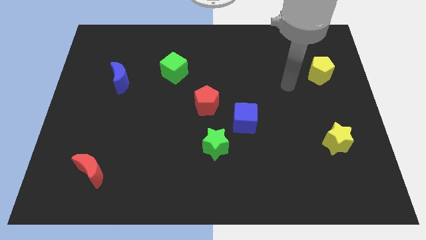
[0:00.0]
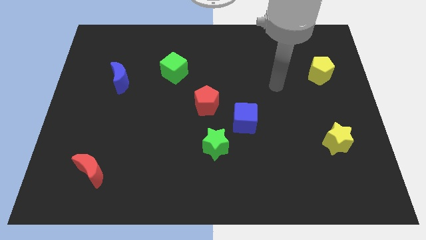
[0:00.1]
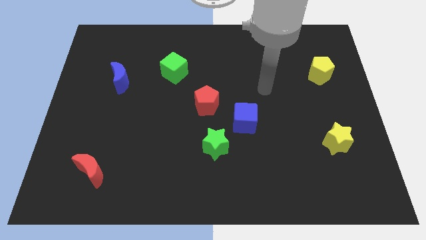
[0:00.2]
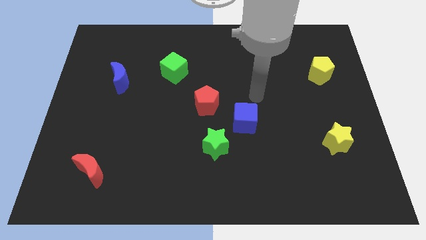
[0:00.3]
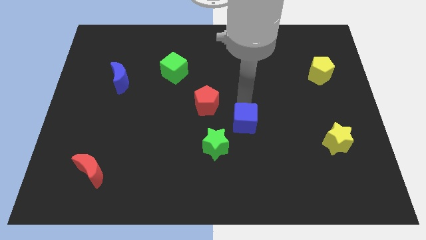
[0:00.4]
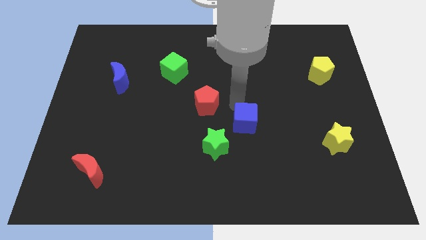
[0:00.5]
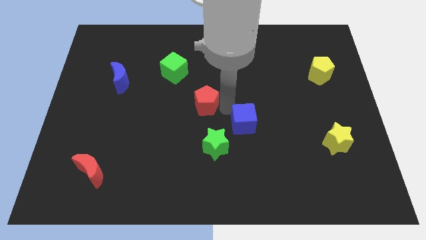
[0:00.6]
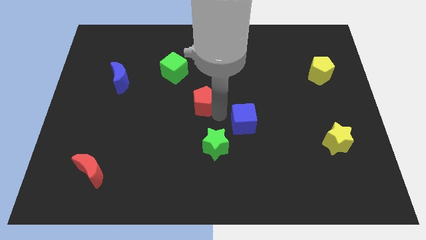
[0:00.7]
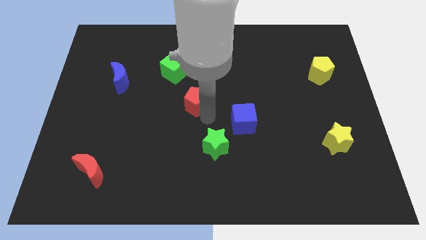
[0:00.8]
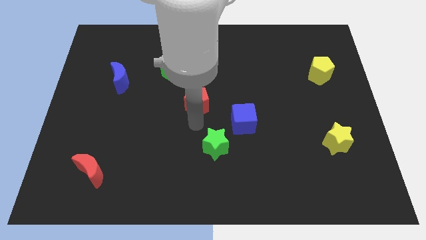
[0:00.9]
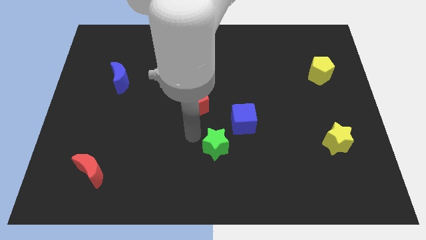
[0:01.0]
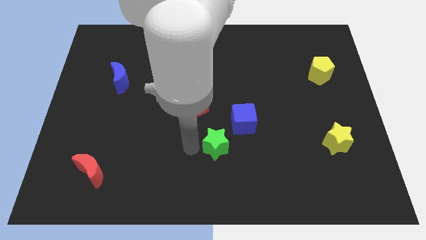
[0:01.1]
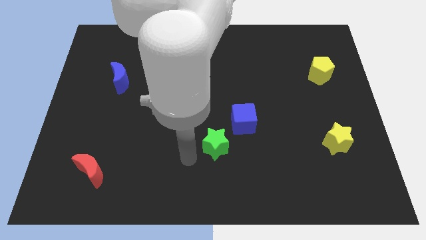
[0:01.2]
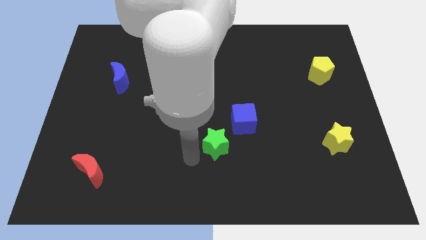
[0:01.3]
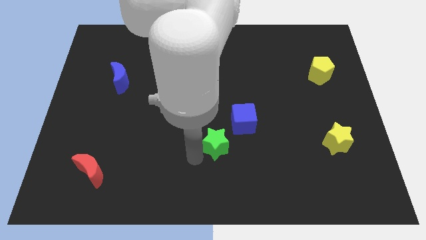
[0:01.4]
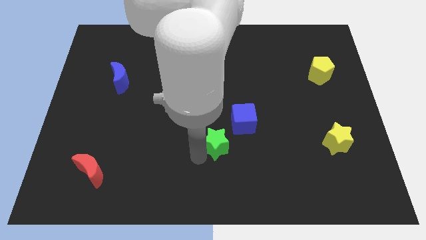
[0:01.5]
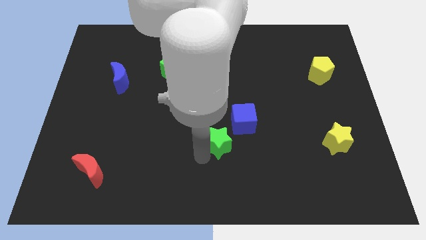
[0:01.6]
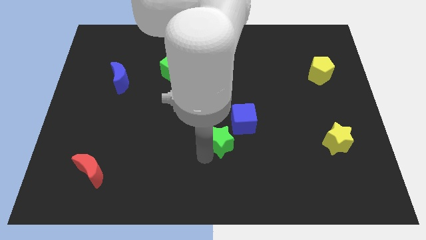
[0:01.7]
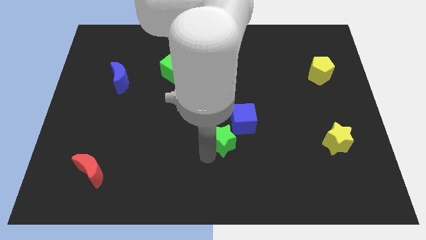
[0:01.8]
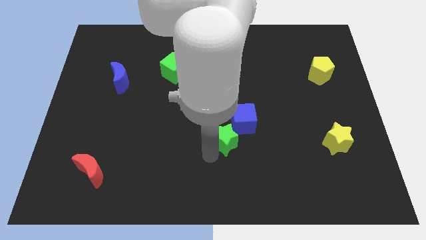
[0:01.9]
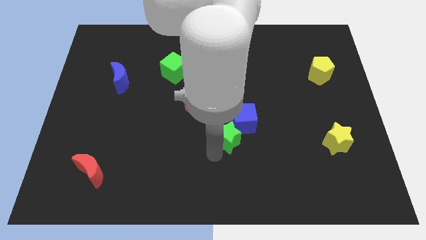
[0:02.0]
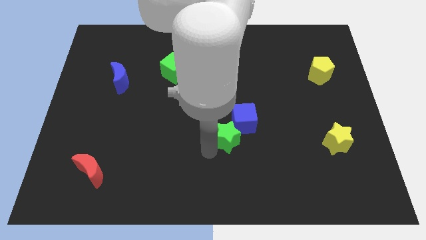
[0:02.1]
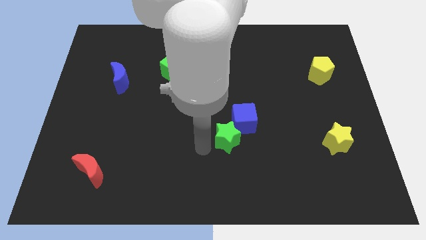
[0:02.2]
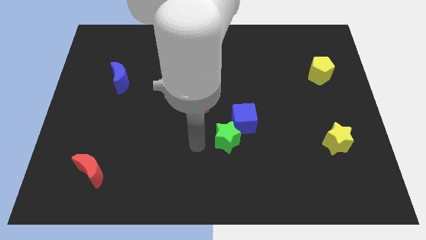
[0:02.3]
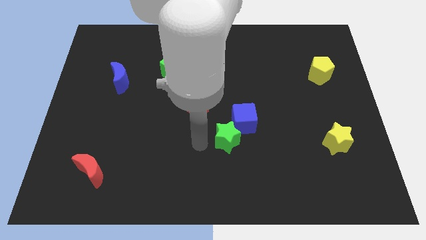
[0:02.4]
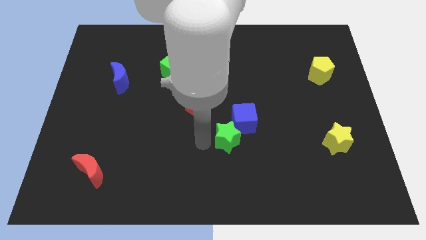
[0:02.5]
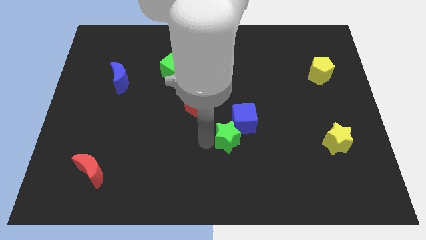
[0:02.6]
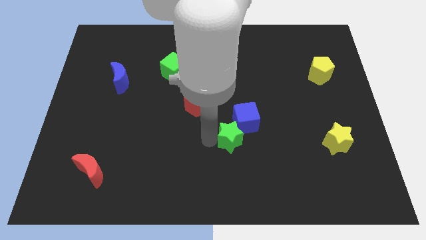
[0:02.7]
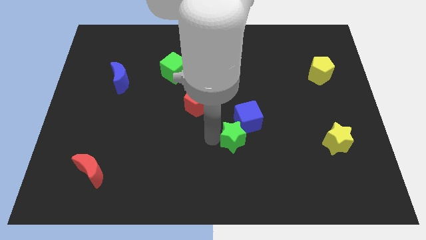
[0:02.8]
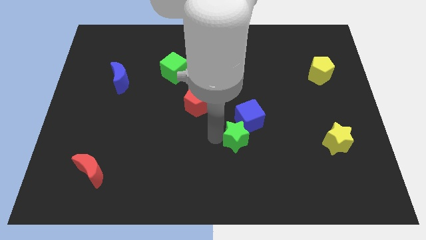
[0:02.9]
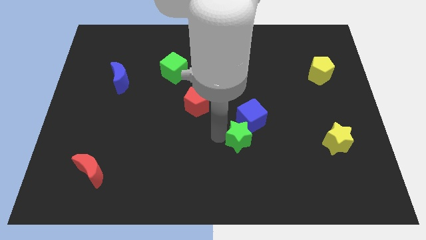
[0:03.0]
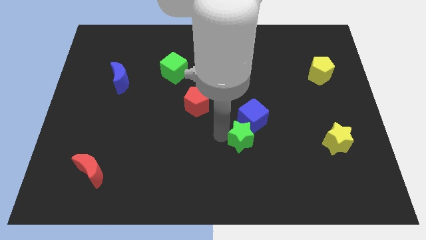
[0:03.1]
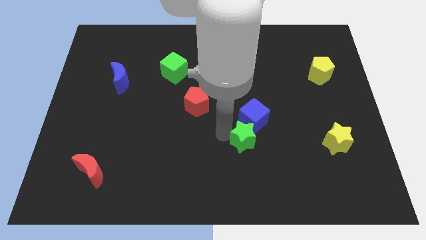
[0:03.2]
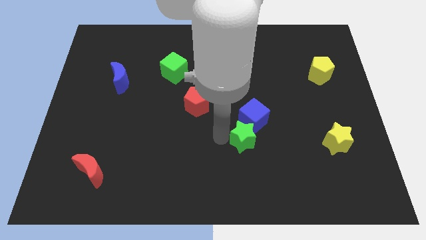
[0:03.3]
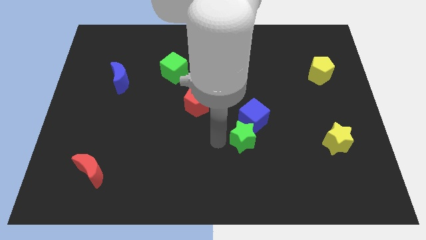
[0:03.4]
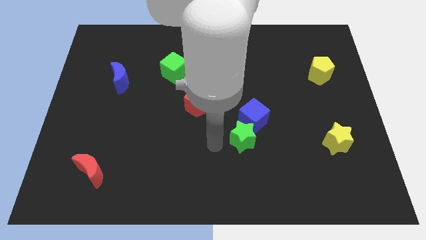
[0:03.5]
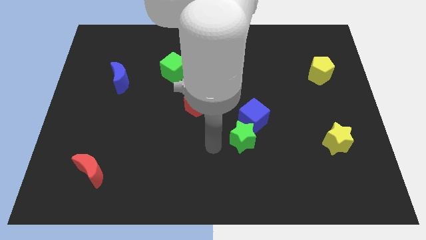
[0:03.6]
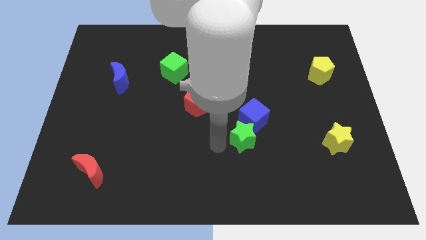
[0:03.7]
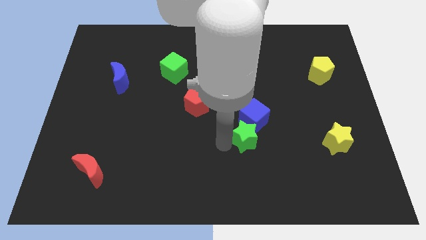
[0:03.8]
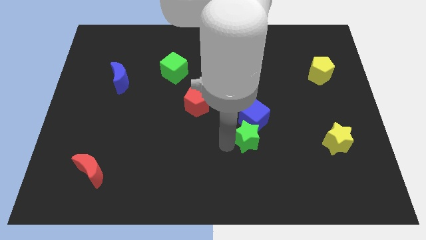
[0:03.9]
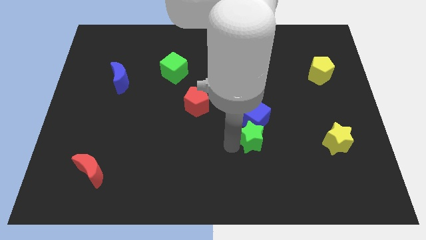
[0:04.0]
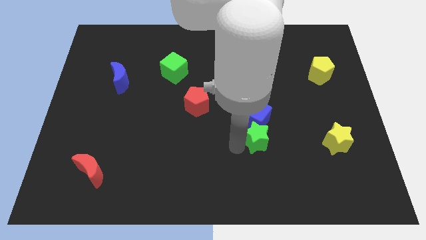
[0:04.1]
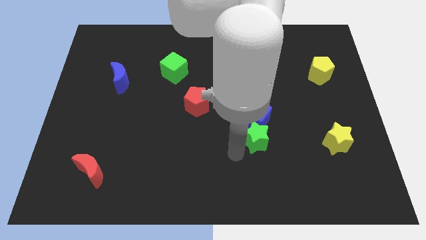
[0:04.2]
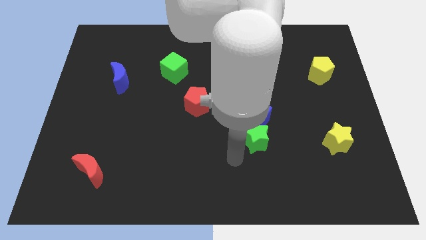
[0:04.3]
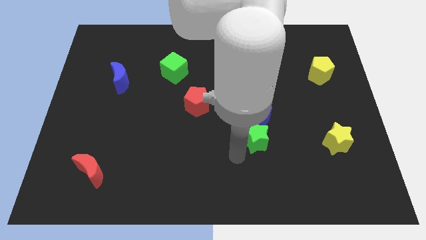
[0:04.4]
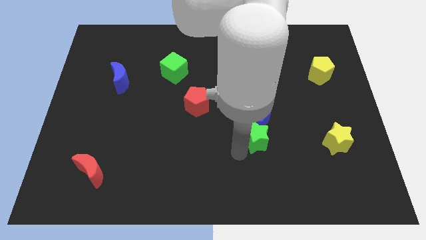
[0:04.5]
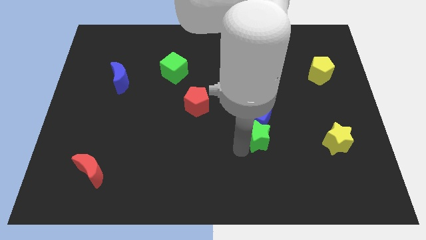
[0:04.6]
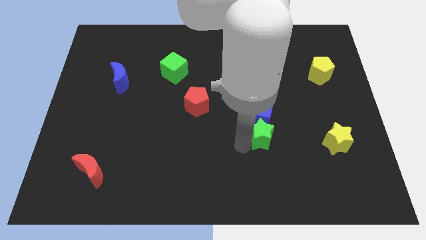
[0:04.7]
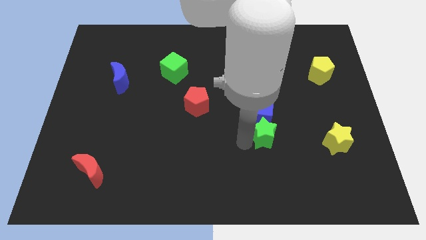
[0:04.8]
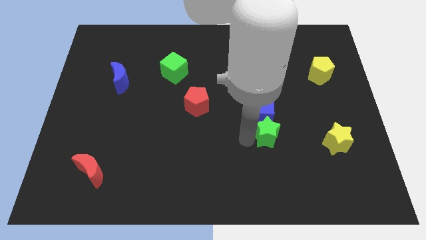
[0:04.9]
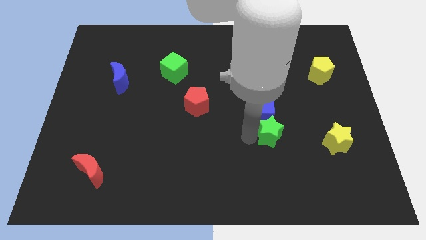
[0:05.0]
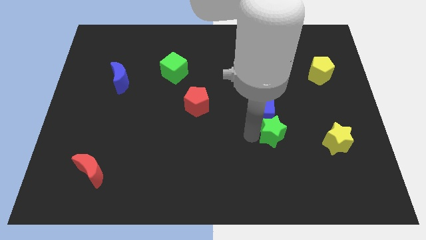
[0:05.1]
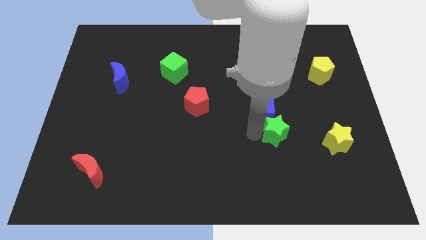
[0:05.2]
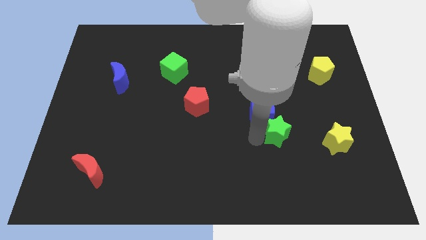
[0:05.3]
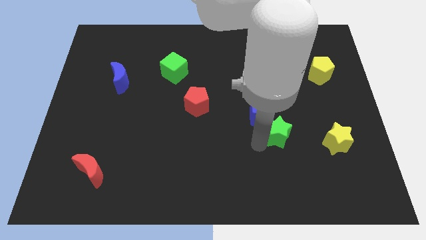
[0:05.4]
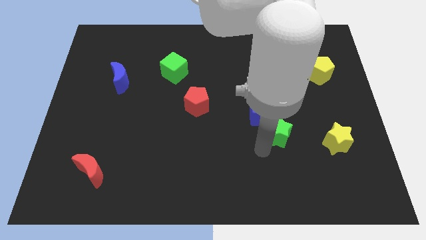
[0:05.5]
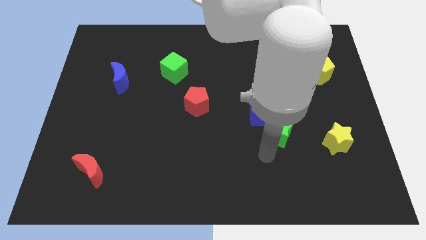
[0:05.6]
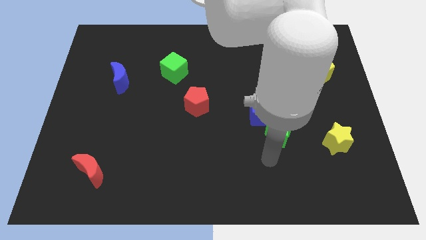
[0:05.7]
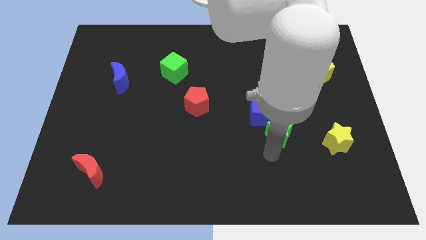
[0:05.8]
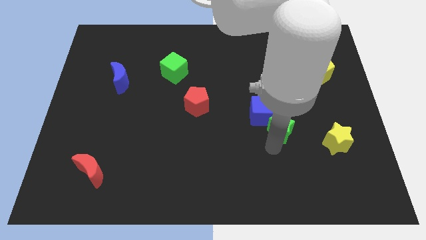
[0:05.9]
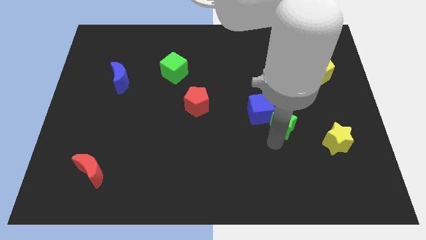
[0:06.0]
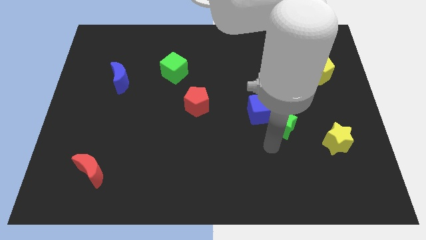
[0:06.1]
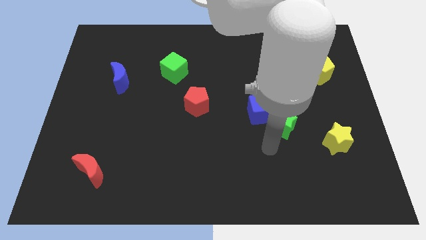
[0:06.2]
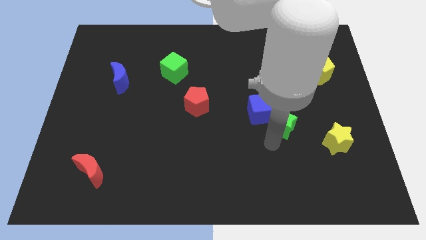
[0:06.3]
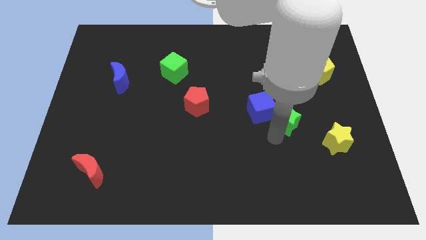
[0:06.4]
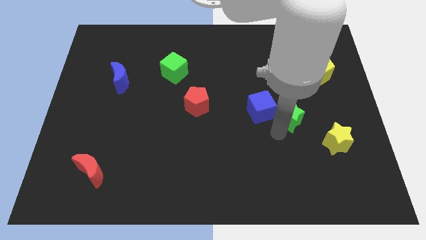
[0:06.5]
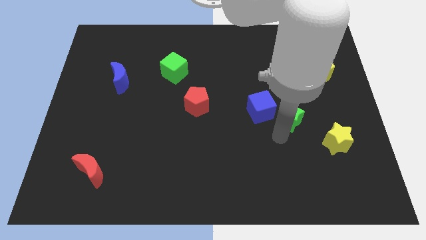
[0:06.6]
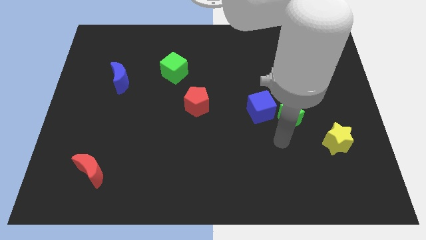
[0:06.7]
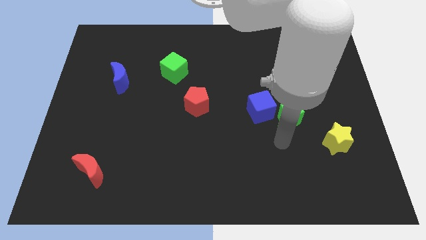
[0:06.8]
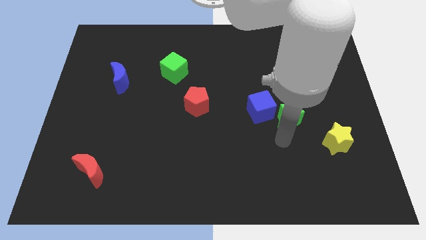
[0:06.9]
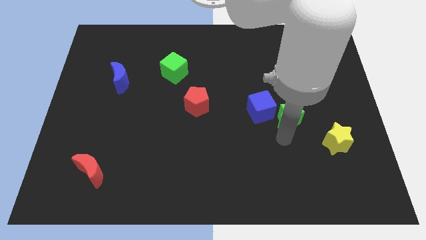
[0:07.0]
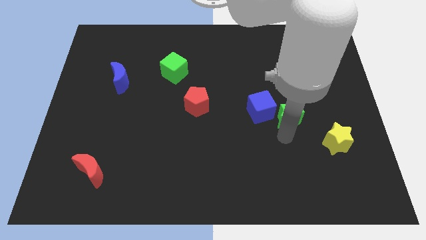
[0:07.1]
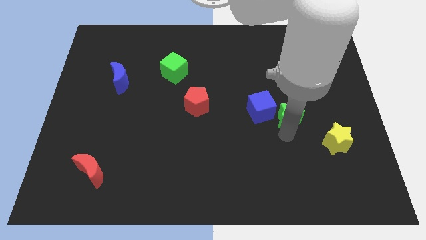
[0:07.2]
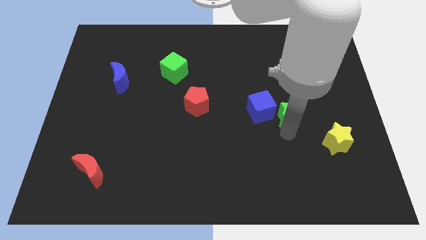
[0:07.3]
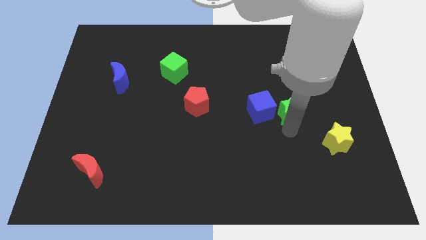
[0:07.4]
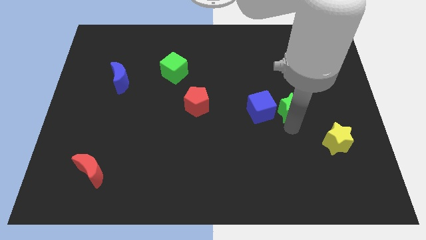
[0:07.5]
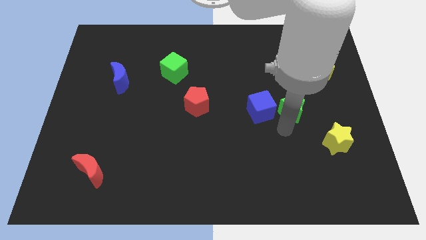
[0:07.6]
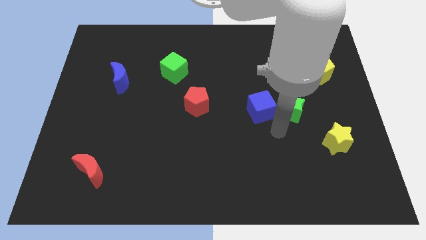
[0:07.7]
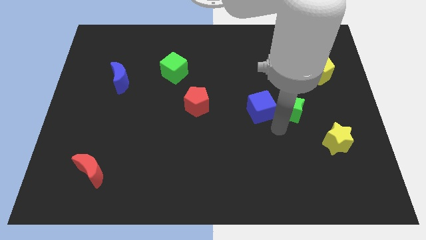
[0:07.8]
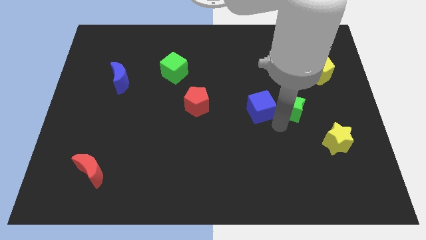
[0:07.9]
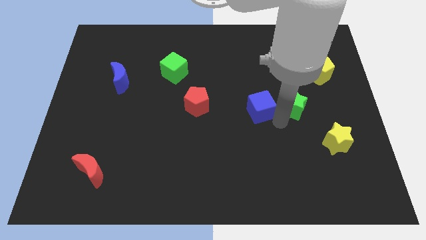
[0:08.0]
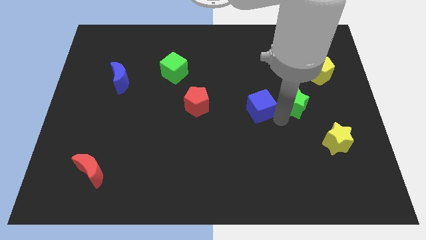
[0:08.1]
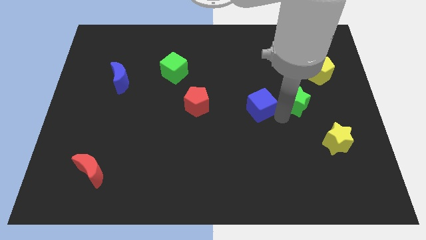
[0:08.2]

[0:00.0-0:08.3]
slide the green star diagonally down and to the left of the yellow pentagon
